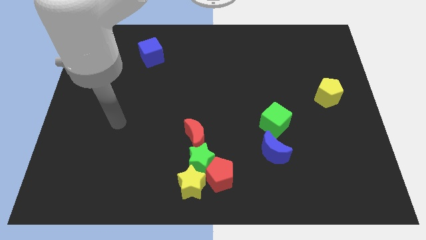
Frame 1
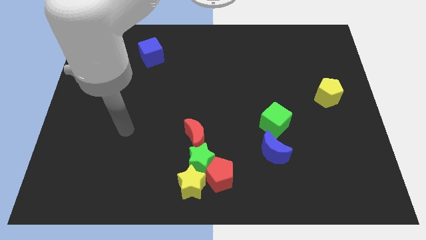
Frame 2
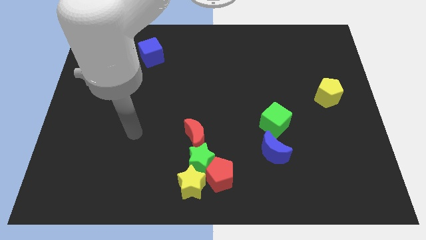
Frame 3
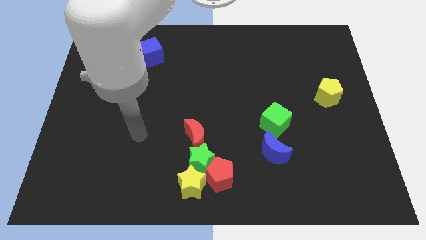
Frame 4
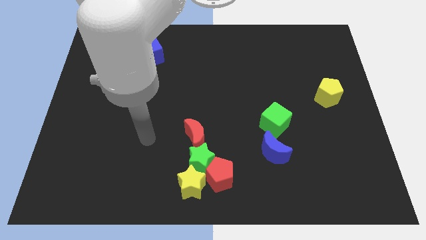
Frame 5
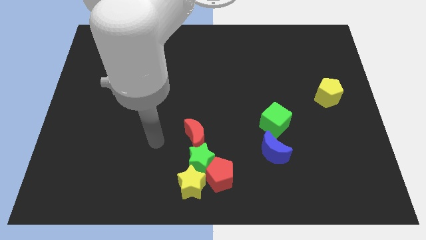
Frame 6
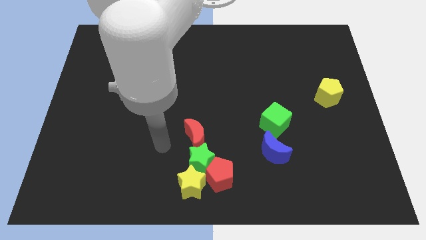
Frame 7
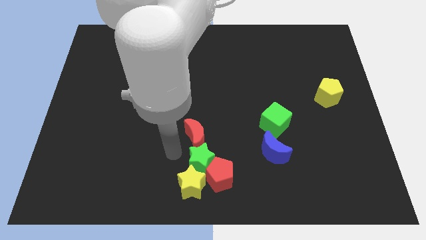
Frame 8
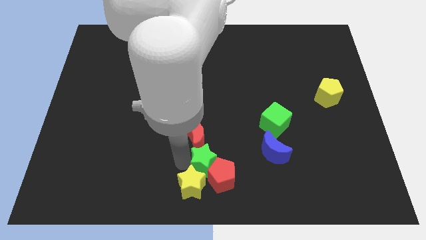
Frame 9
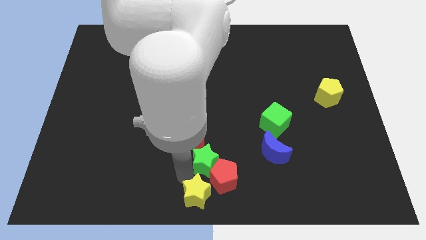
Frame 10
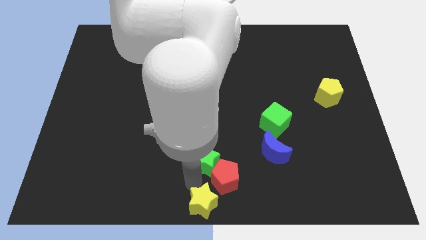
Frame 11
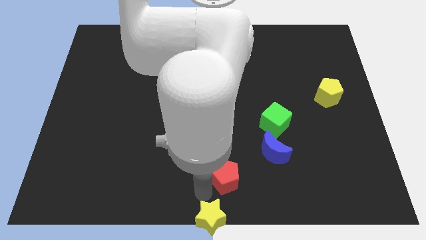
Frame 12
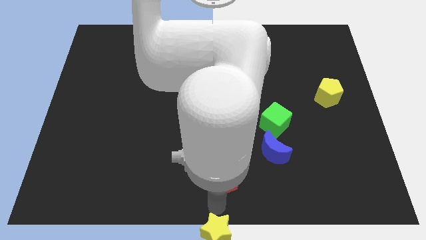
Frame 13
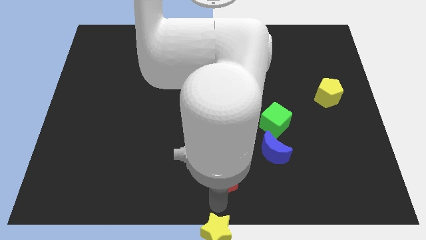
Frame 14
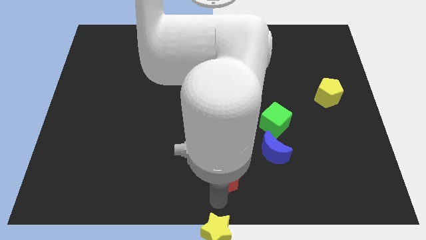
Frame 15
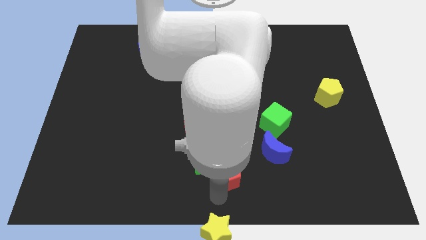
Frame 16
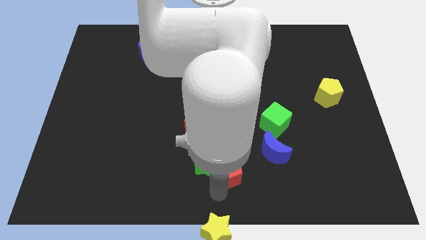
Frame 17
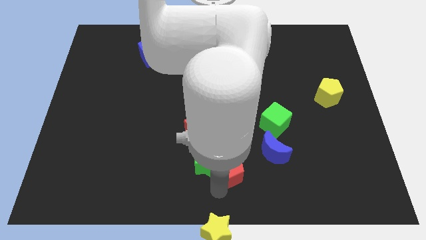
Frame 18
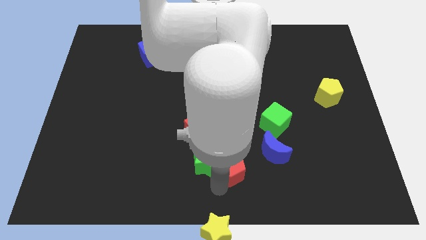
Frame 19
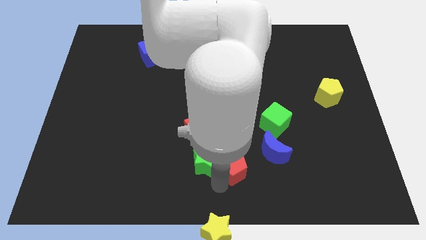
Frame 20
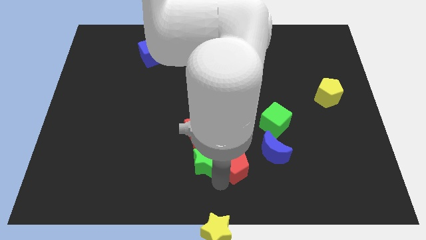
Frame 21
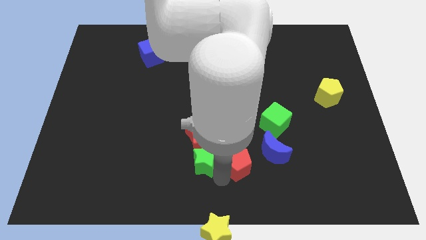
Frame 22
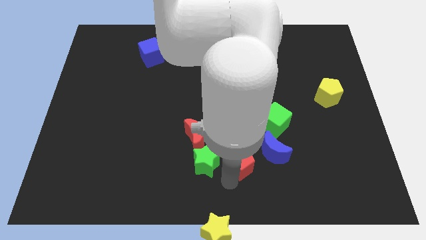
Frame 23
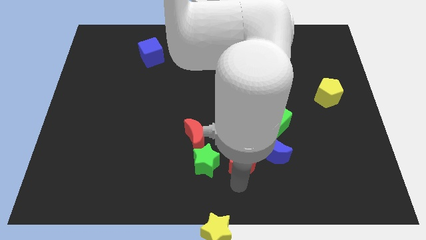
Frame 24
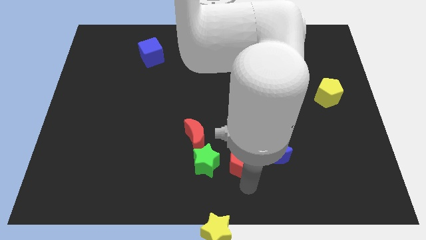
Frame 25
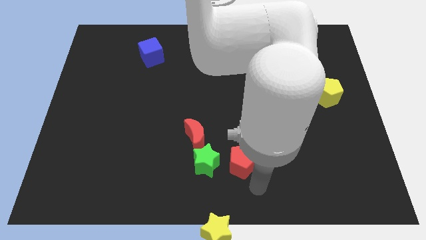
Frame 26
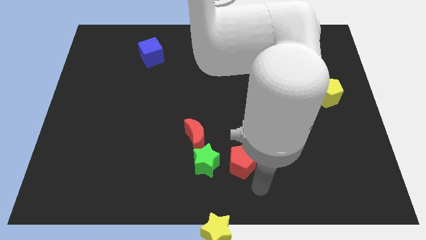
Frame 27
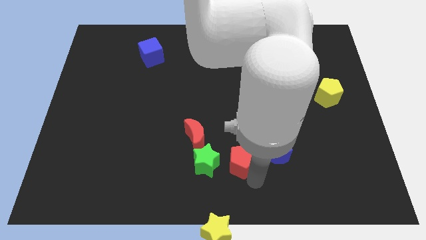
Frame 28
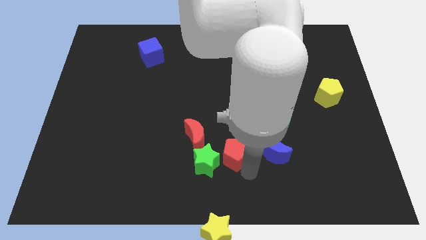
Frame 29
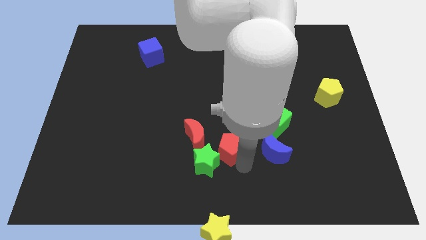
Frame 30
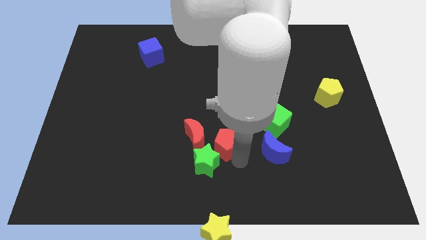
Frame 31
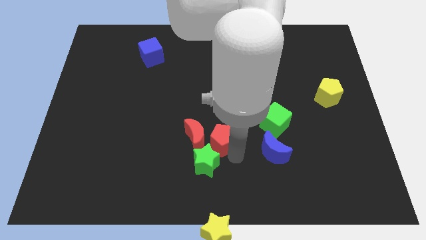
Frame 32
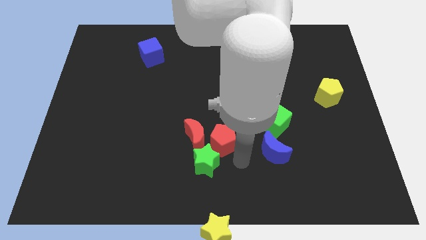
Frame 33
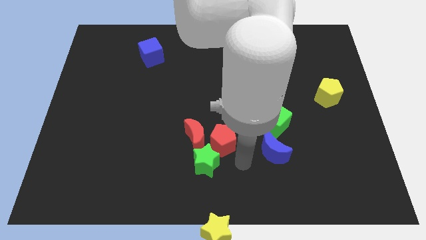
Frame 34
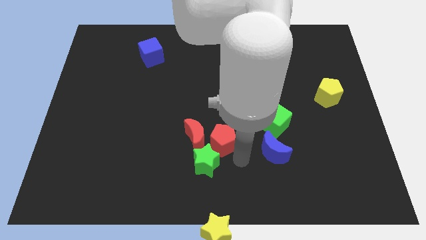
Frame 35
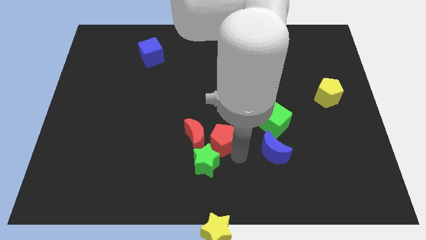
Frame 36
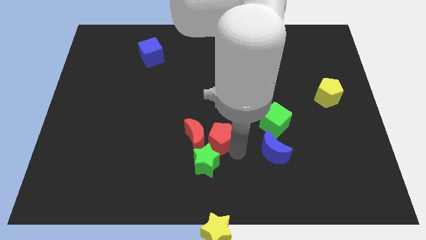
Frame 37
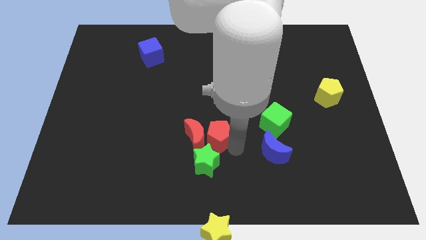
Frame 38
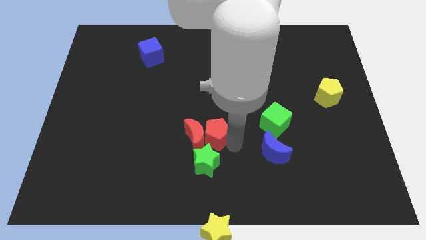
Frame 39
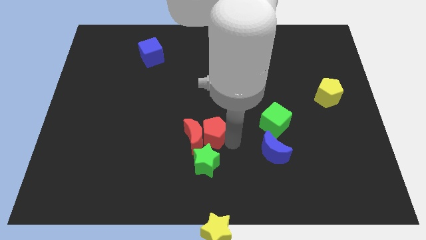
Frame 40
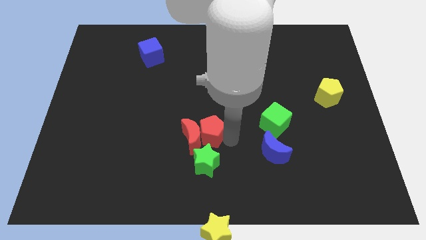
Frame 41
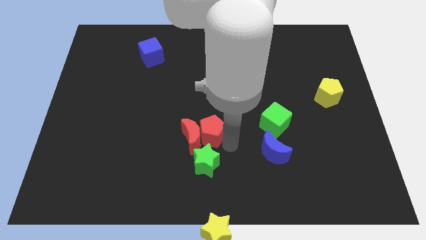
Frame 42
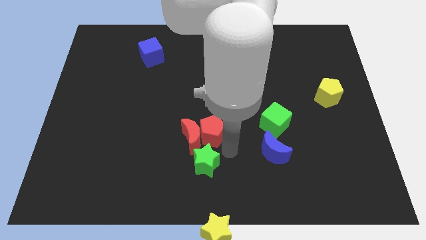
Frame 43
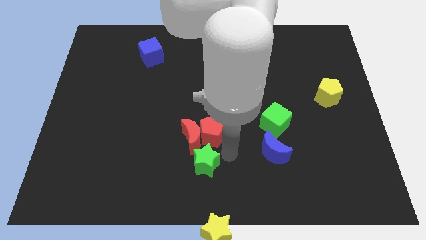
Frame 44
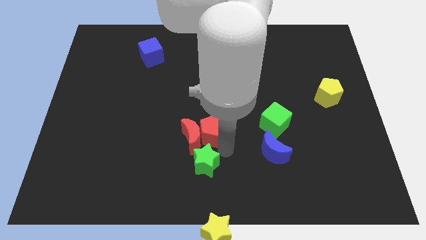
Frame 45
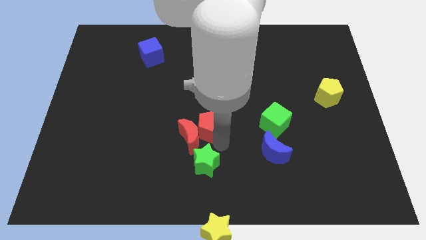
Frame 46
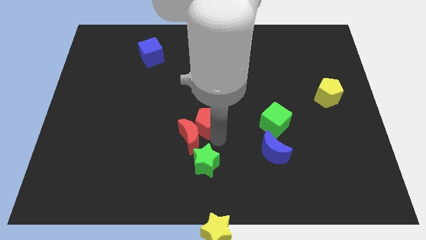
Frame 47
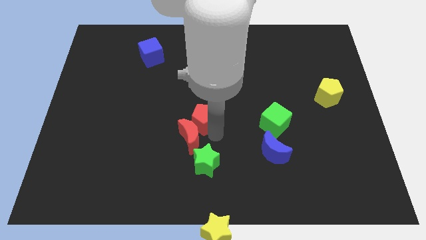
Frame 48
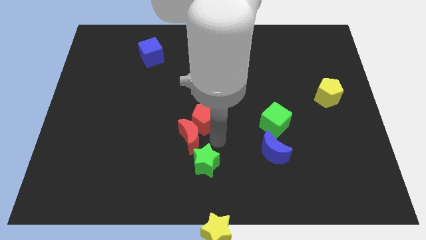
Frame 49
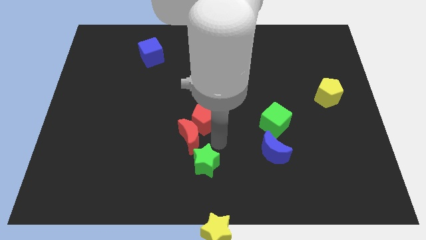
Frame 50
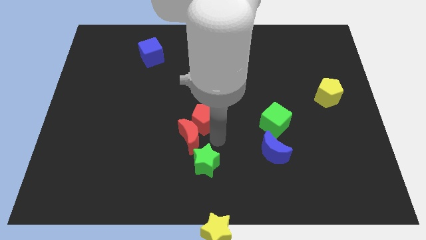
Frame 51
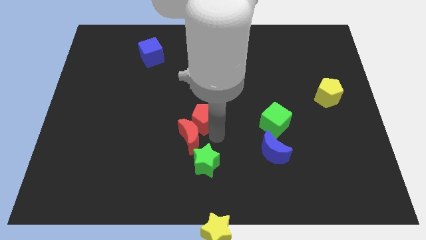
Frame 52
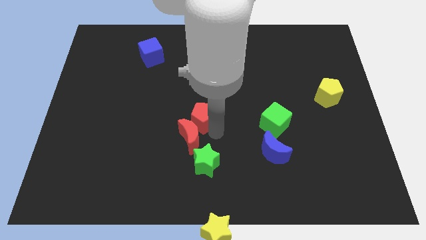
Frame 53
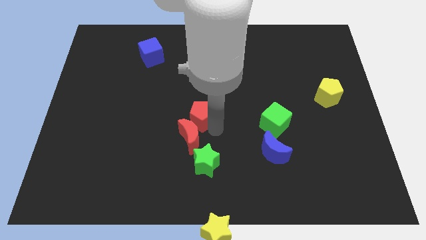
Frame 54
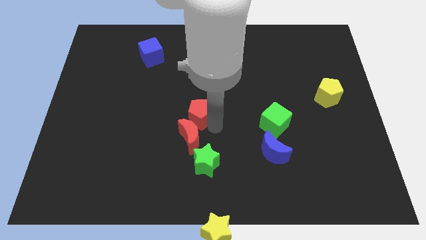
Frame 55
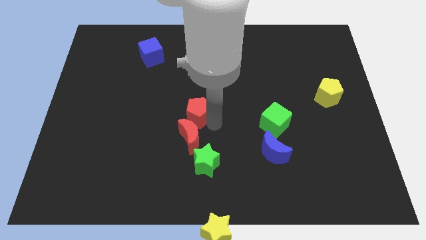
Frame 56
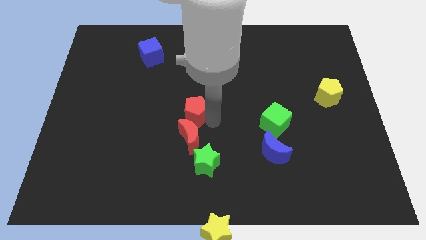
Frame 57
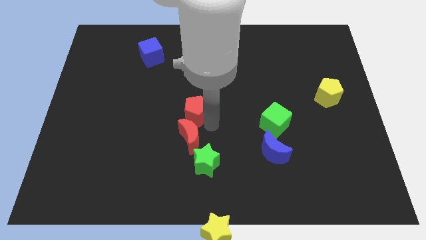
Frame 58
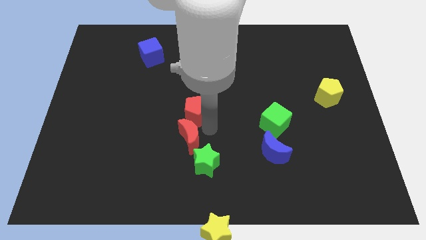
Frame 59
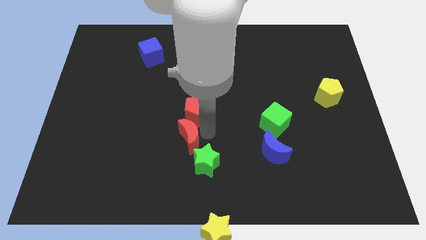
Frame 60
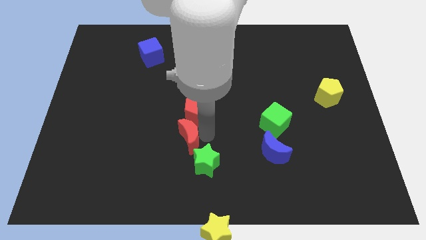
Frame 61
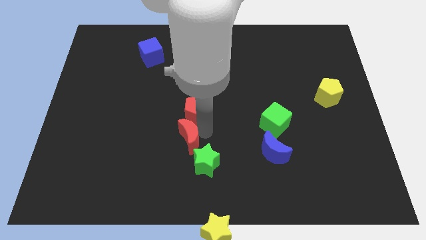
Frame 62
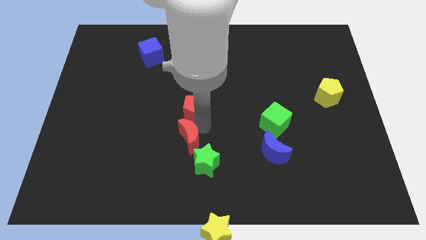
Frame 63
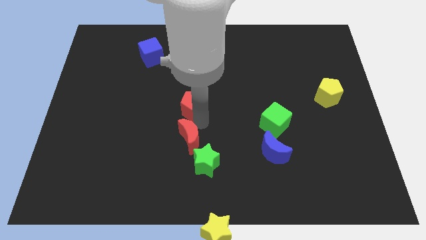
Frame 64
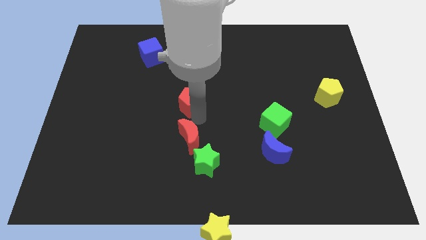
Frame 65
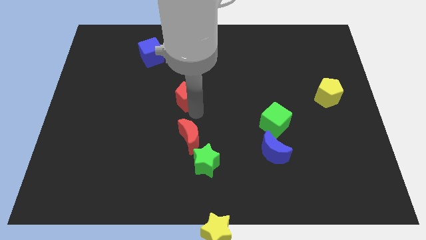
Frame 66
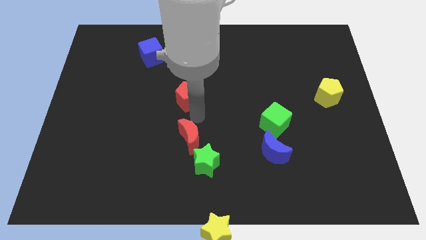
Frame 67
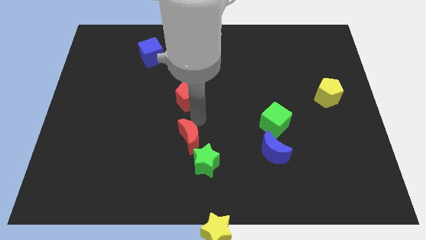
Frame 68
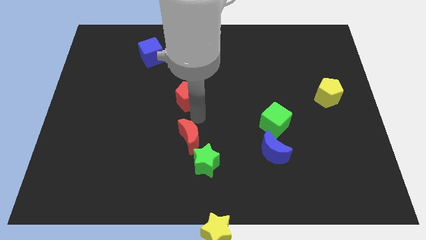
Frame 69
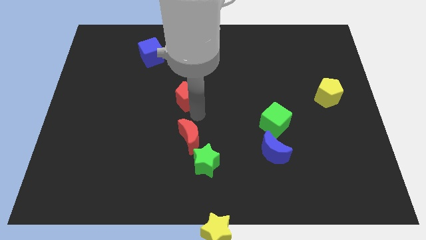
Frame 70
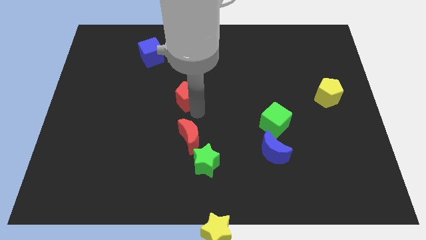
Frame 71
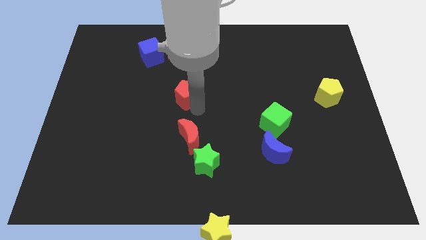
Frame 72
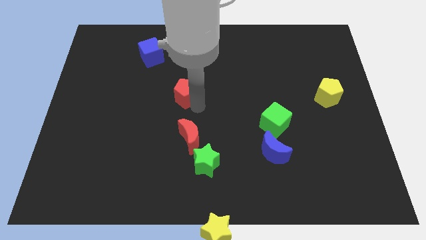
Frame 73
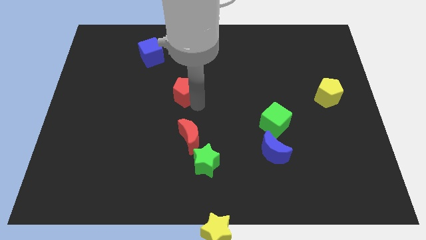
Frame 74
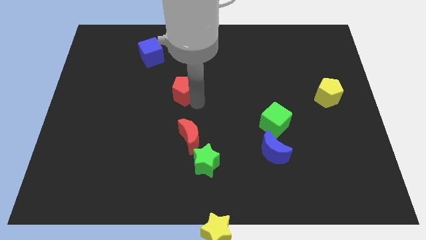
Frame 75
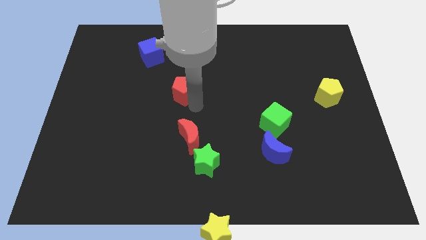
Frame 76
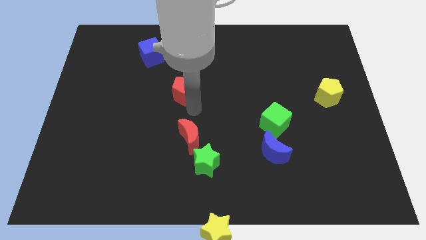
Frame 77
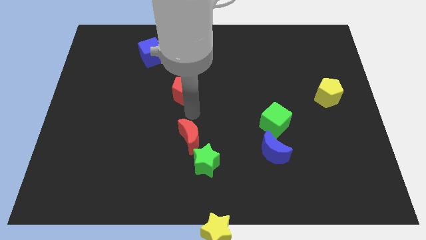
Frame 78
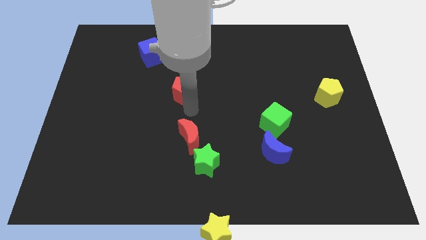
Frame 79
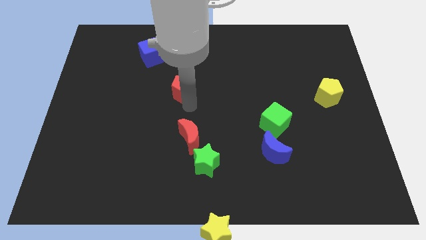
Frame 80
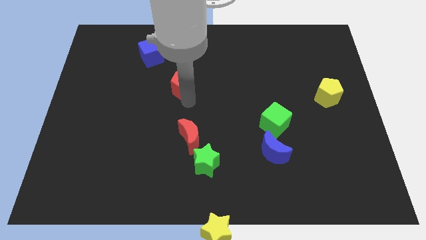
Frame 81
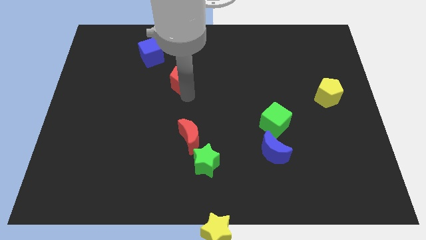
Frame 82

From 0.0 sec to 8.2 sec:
put the red pentagon diagonally down and to the right of the blue cube
